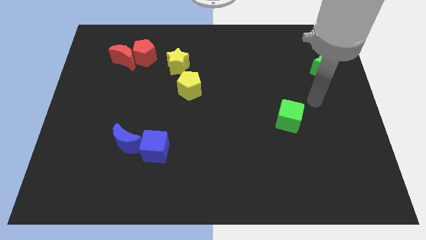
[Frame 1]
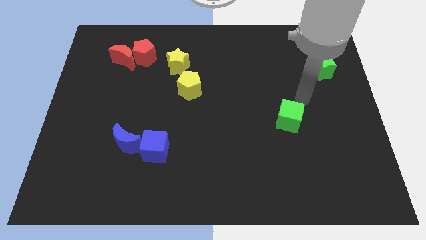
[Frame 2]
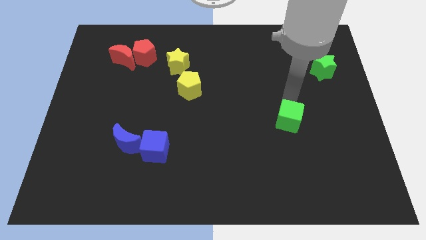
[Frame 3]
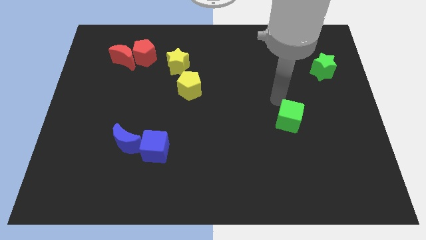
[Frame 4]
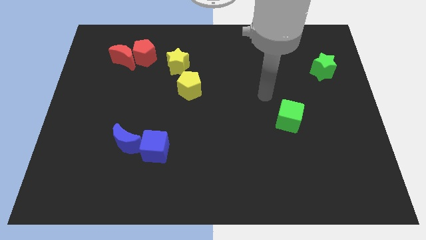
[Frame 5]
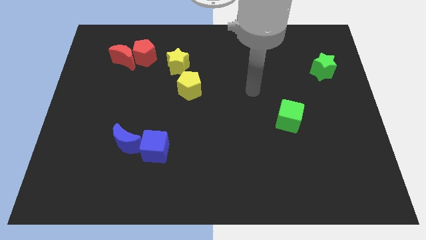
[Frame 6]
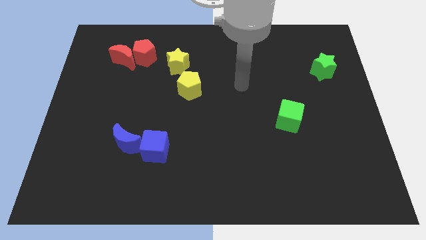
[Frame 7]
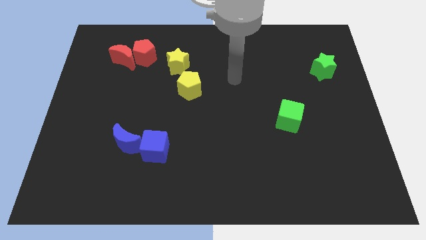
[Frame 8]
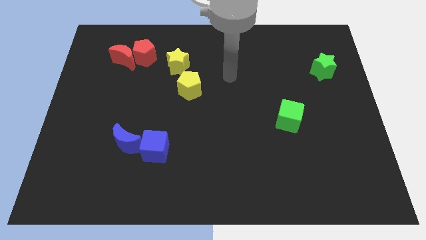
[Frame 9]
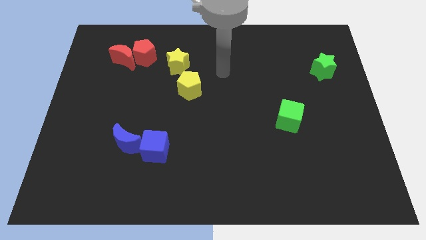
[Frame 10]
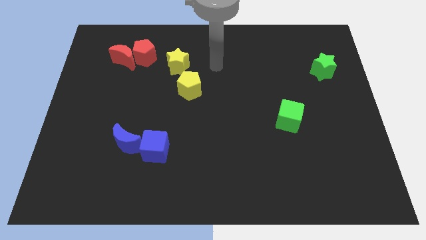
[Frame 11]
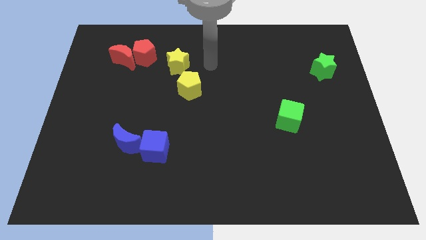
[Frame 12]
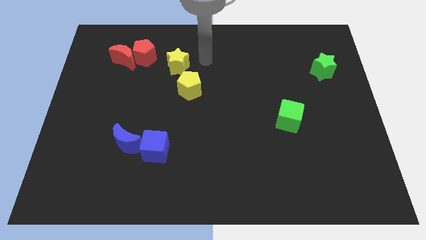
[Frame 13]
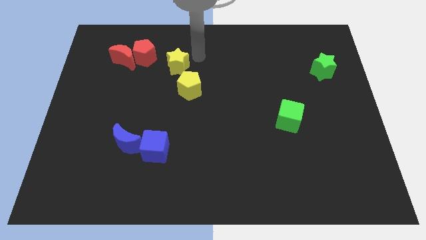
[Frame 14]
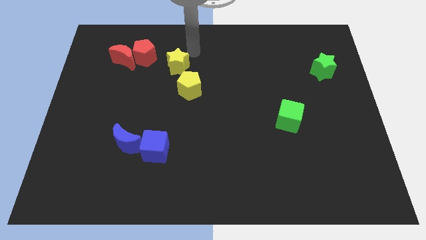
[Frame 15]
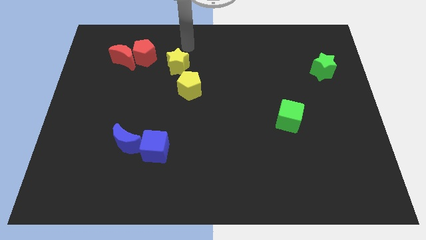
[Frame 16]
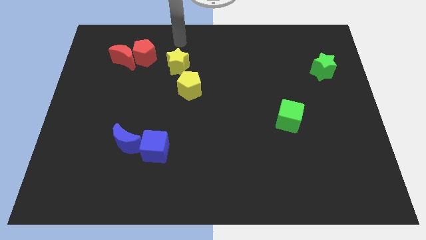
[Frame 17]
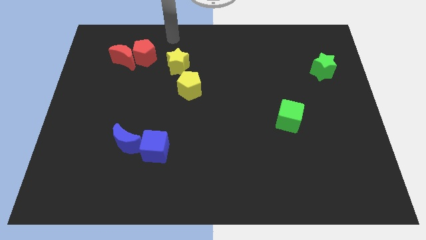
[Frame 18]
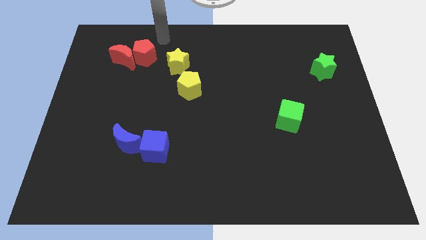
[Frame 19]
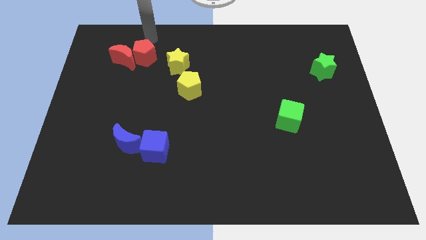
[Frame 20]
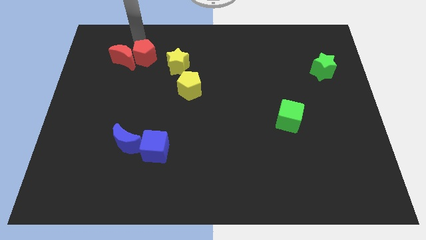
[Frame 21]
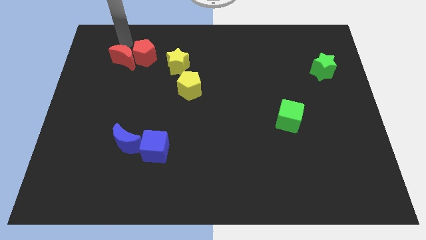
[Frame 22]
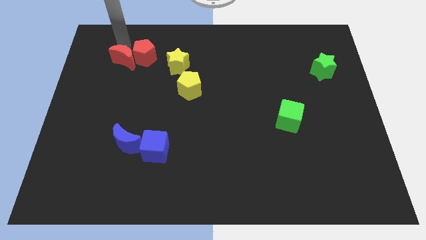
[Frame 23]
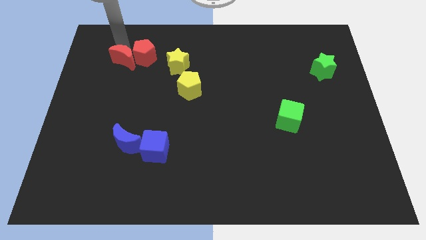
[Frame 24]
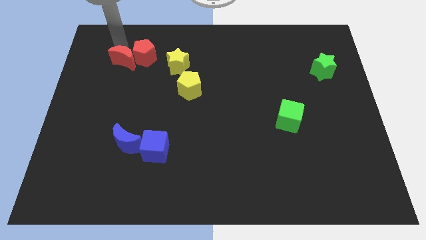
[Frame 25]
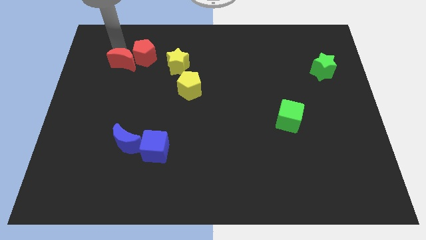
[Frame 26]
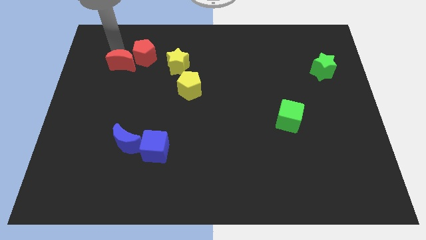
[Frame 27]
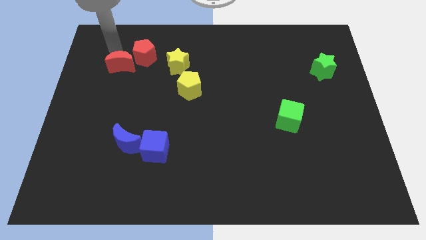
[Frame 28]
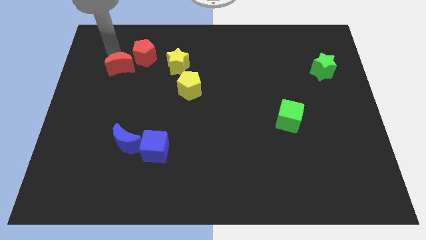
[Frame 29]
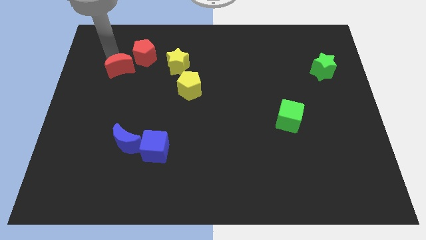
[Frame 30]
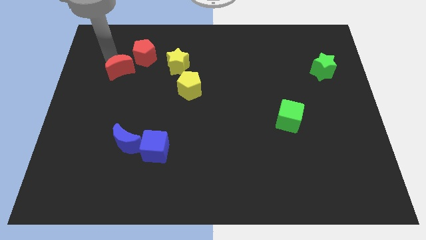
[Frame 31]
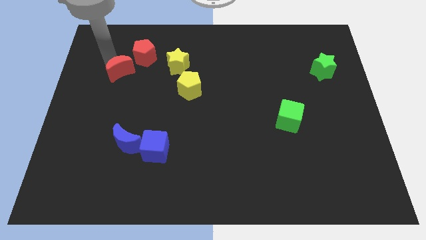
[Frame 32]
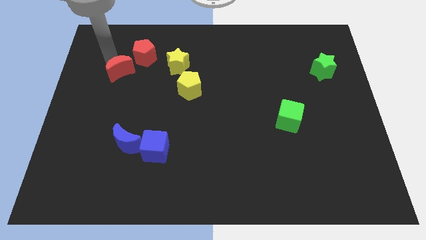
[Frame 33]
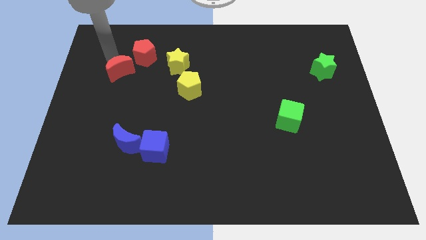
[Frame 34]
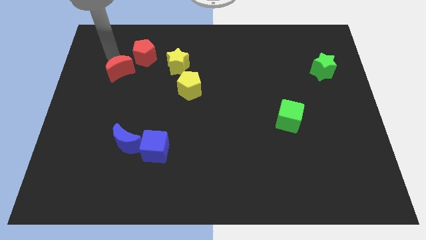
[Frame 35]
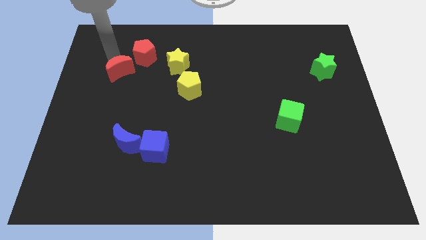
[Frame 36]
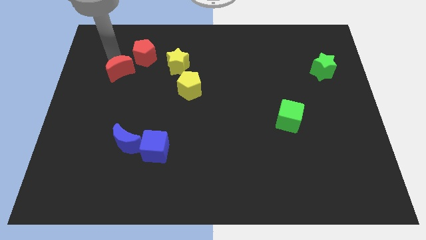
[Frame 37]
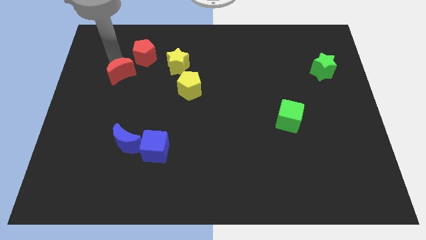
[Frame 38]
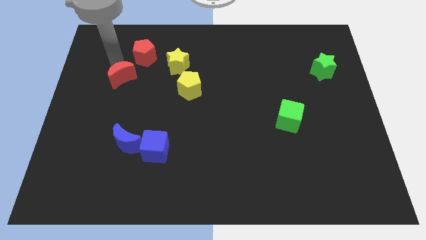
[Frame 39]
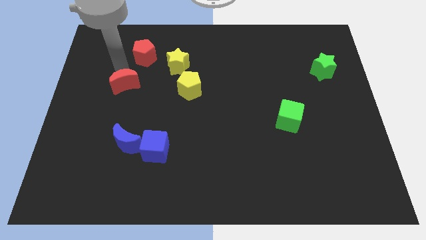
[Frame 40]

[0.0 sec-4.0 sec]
slide the red moon down somewhat

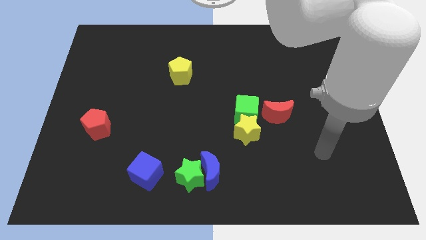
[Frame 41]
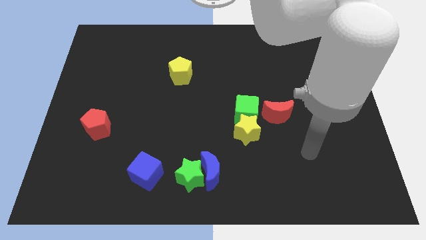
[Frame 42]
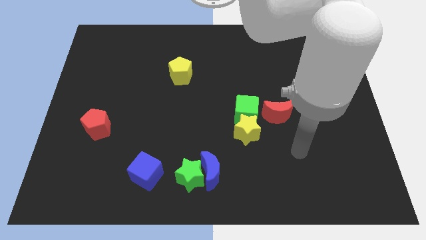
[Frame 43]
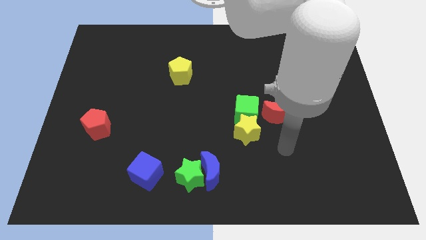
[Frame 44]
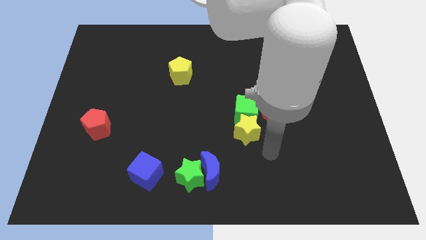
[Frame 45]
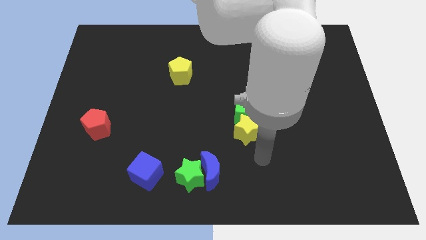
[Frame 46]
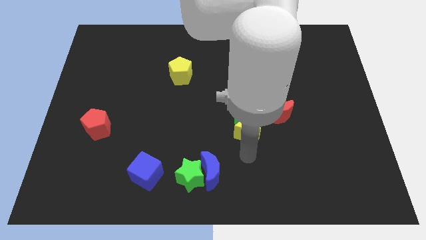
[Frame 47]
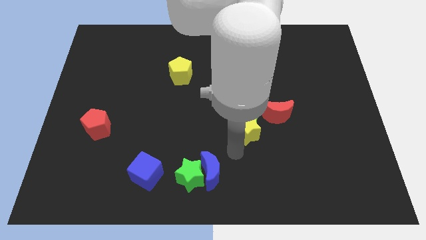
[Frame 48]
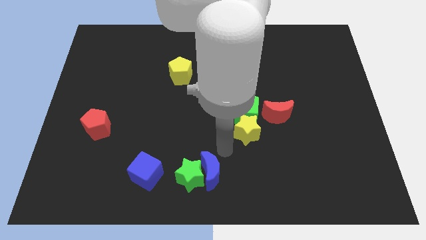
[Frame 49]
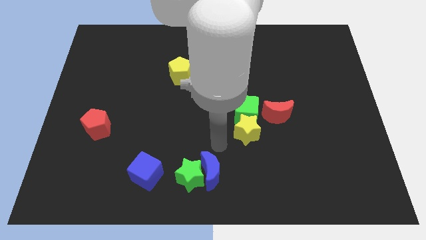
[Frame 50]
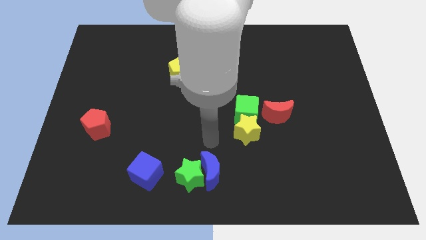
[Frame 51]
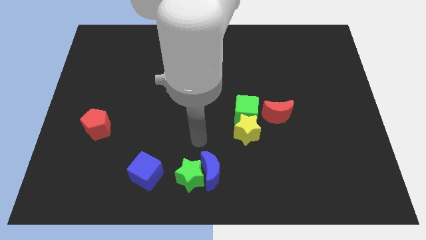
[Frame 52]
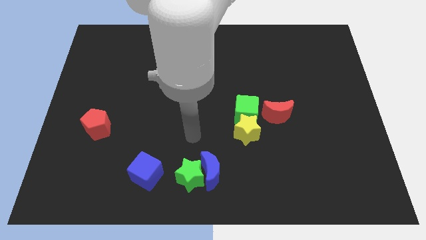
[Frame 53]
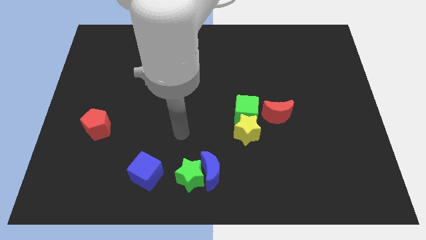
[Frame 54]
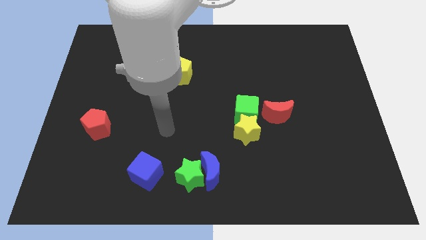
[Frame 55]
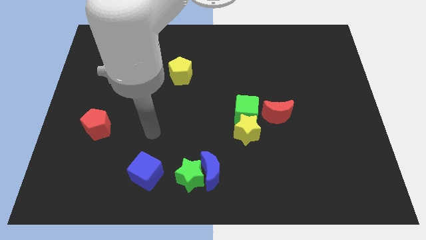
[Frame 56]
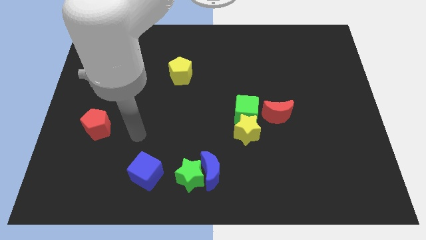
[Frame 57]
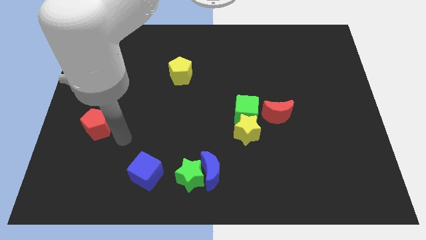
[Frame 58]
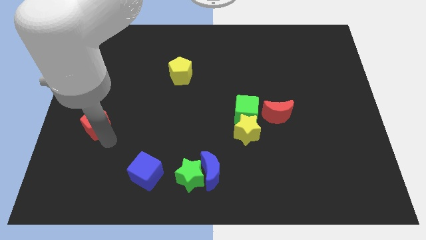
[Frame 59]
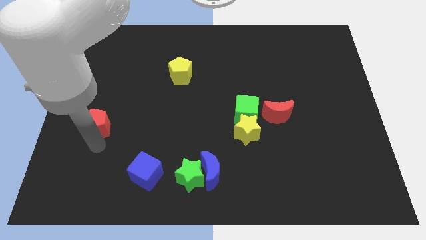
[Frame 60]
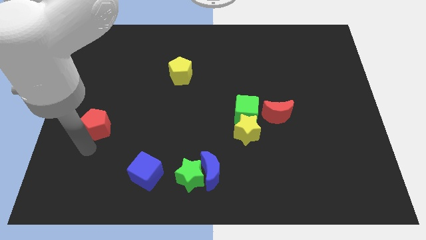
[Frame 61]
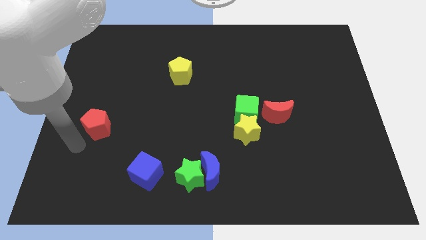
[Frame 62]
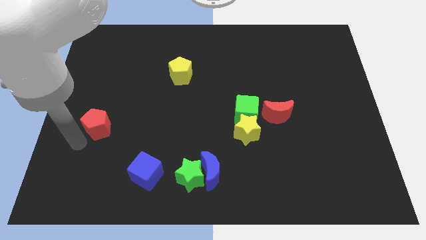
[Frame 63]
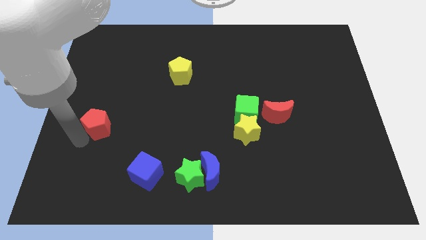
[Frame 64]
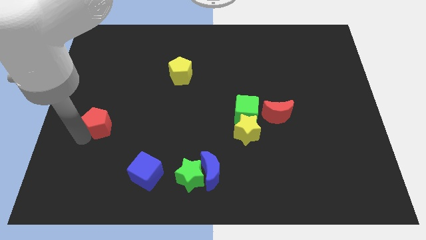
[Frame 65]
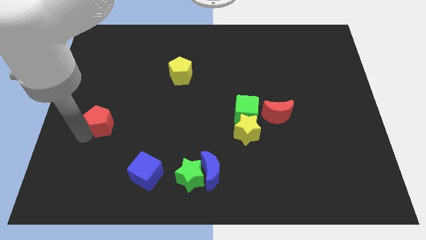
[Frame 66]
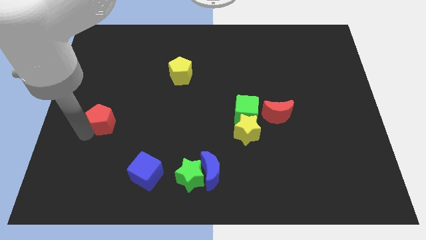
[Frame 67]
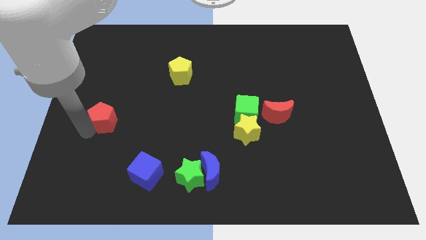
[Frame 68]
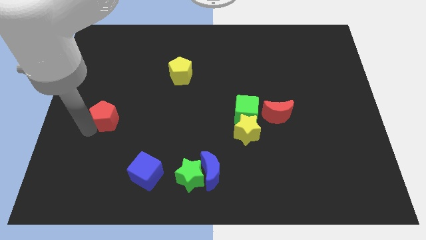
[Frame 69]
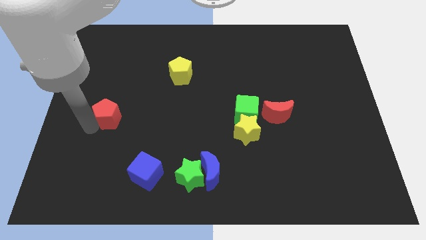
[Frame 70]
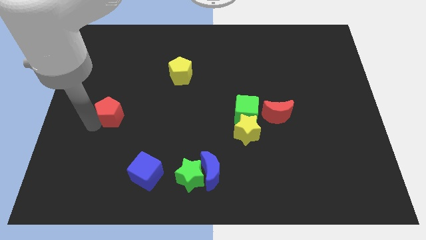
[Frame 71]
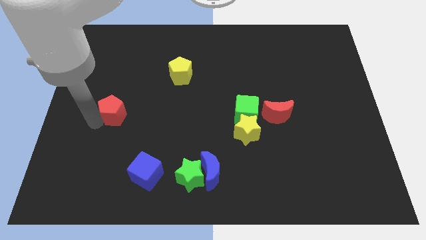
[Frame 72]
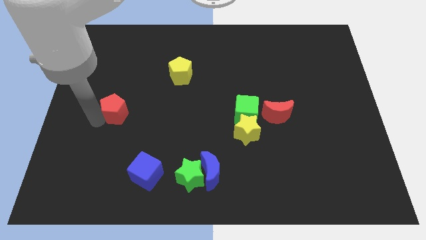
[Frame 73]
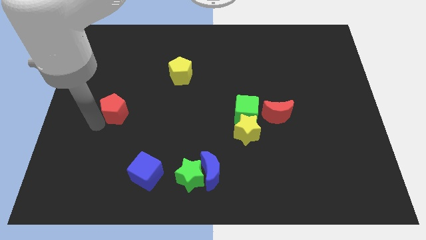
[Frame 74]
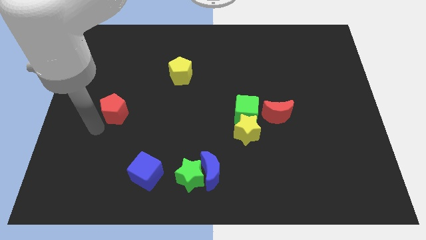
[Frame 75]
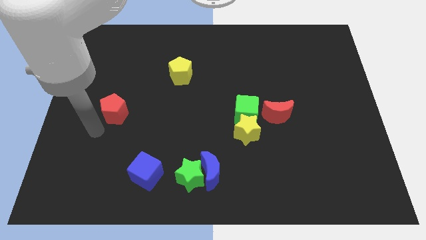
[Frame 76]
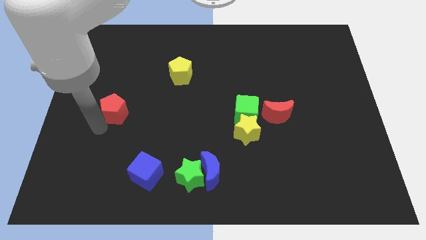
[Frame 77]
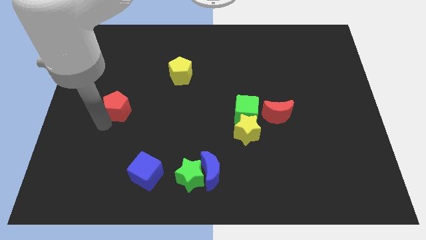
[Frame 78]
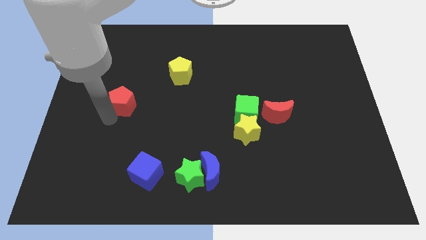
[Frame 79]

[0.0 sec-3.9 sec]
slightly push the red pentagon up and then to the right
